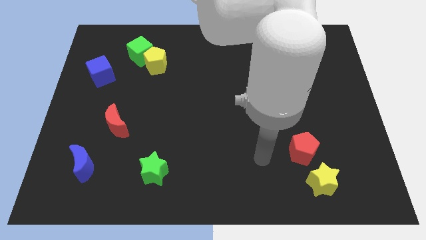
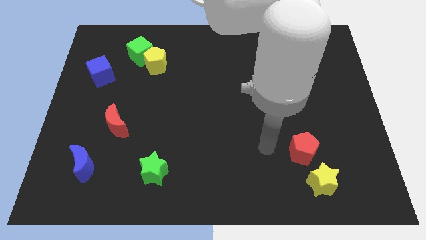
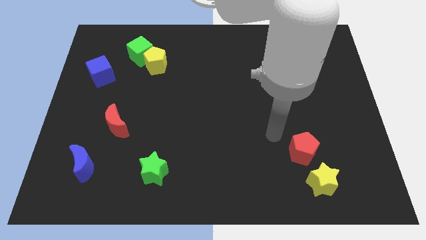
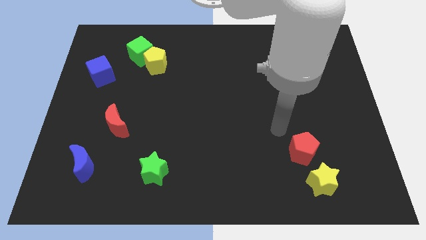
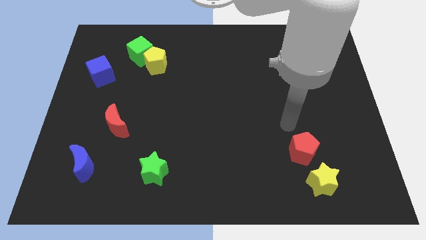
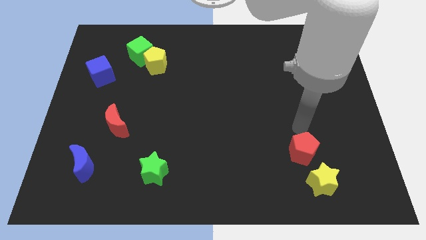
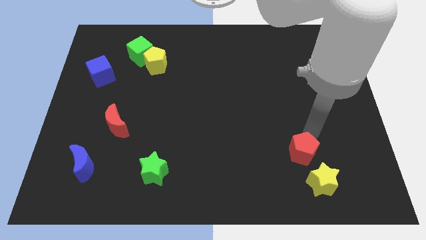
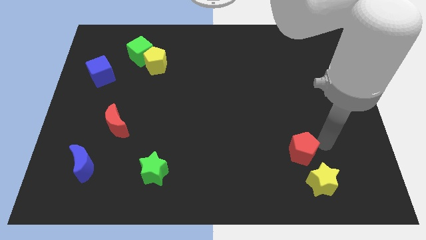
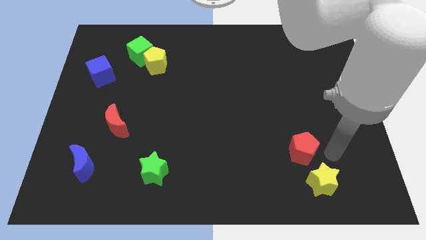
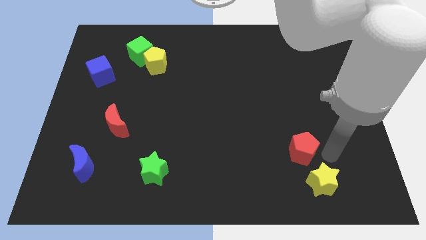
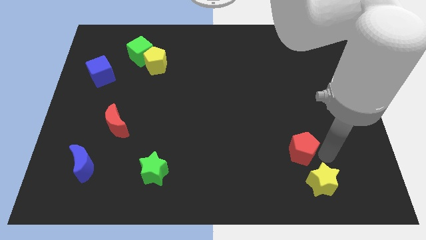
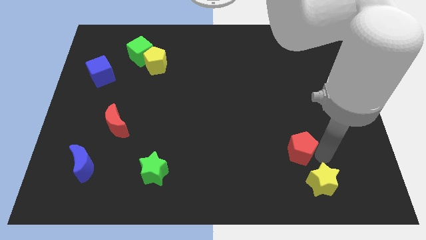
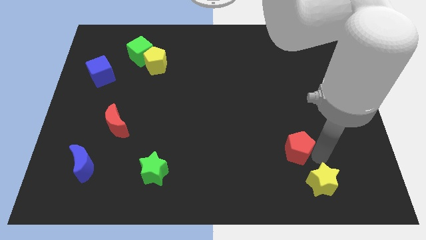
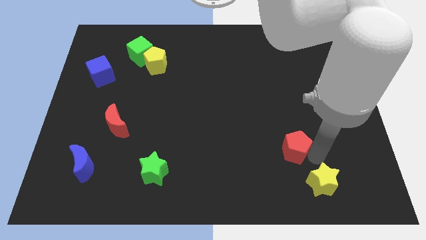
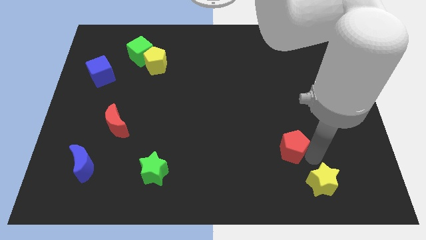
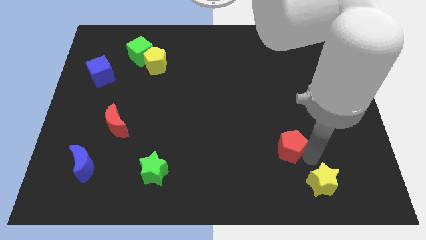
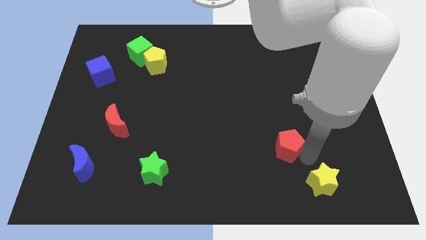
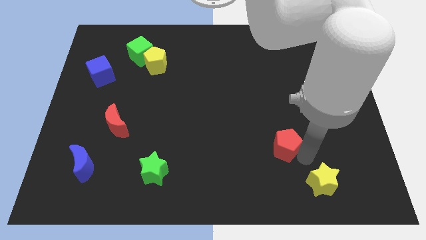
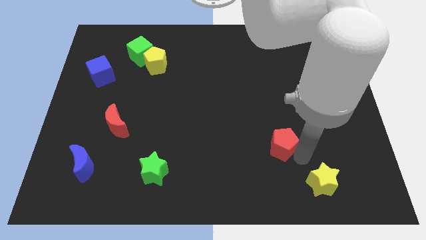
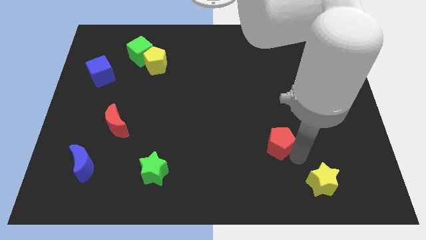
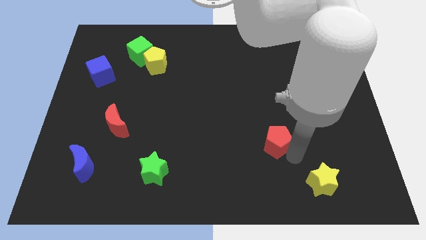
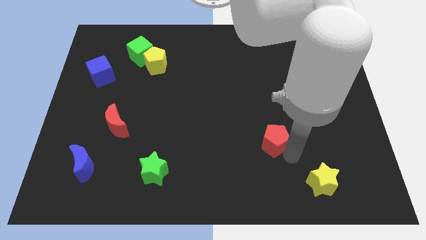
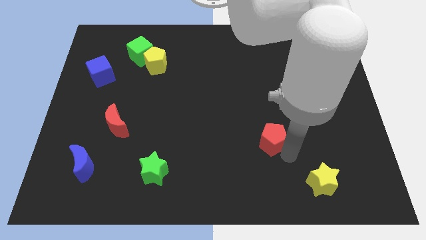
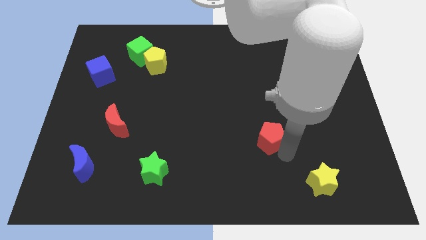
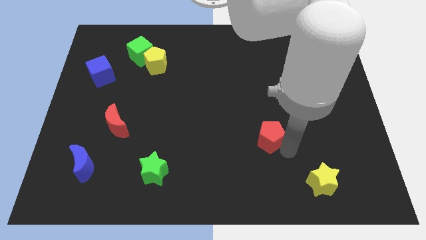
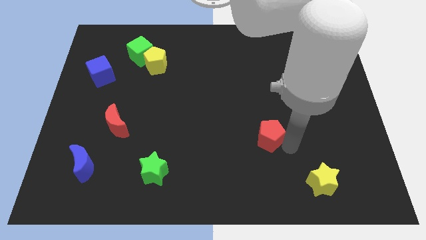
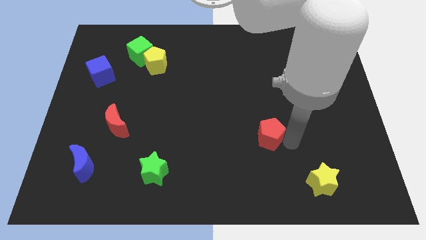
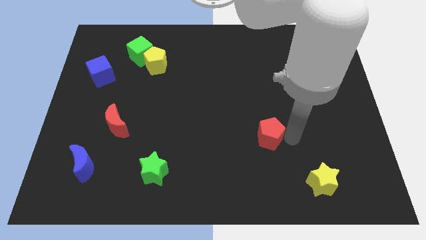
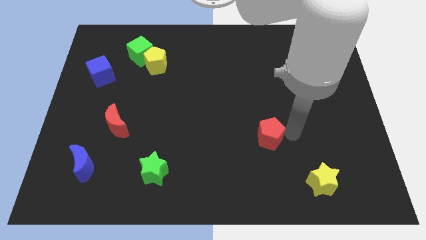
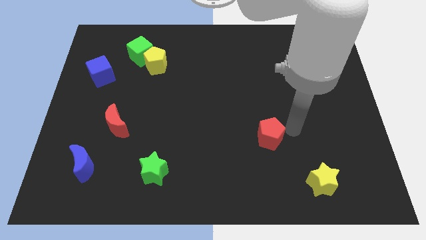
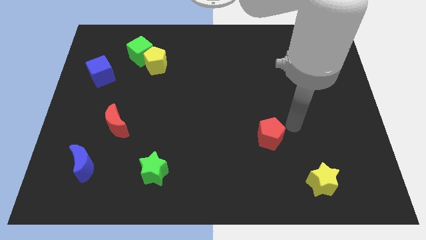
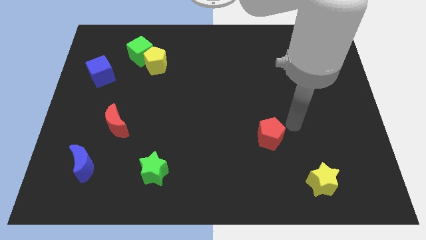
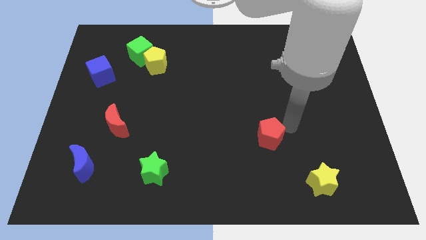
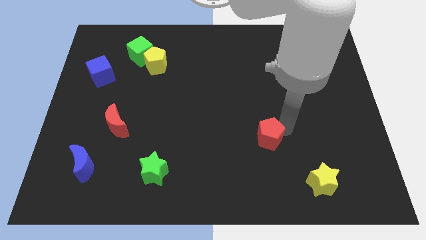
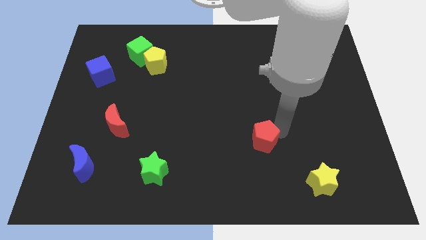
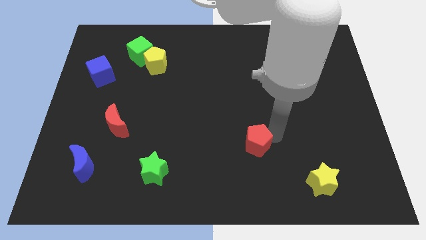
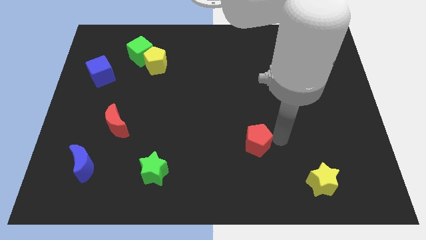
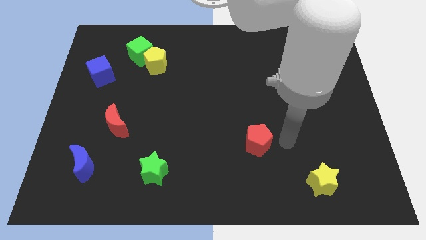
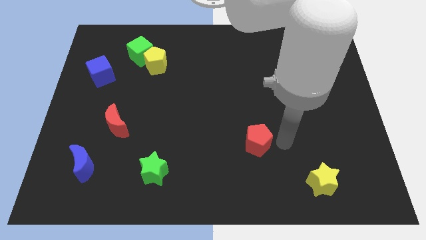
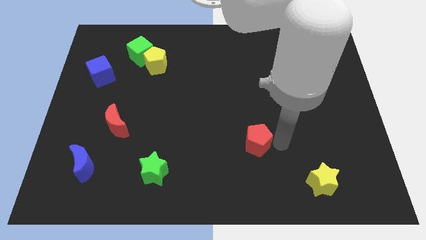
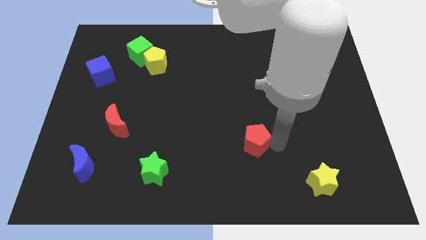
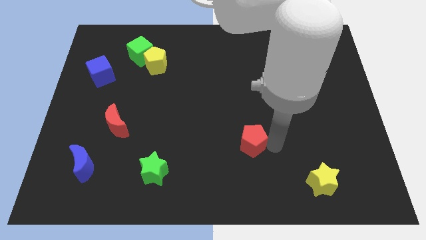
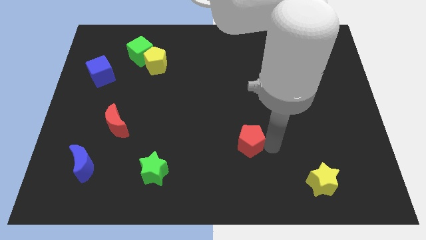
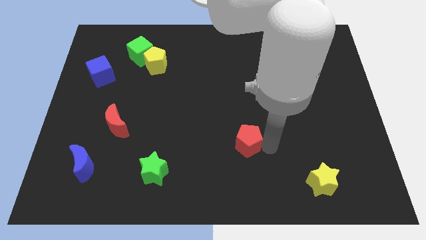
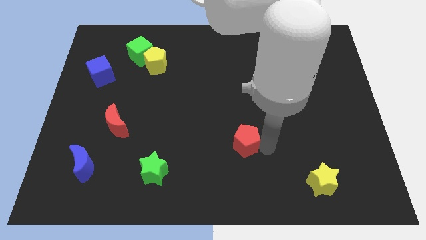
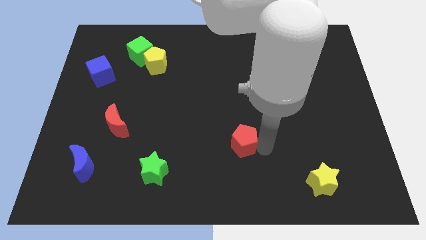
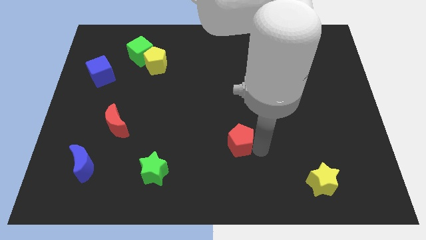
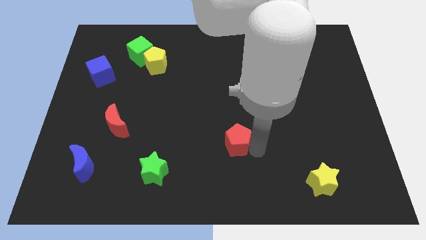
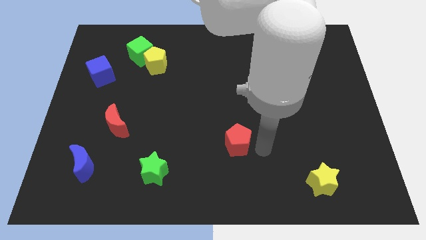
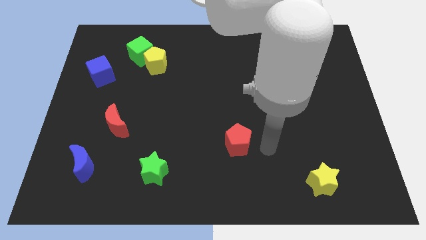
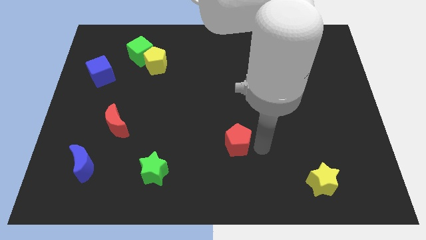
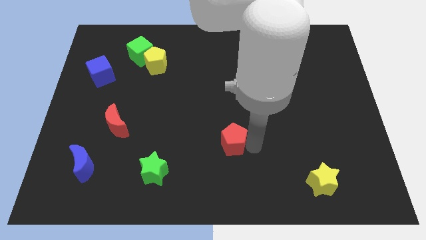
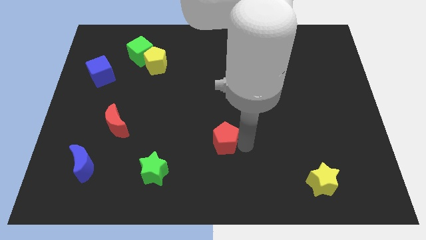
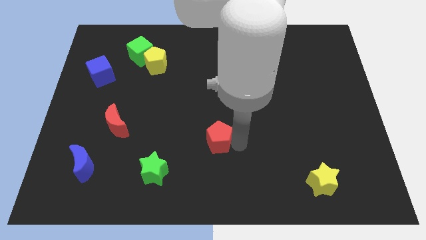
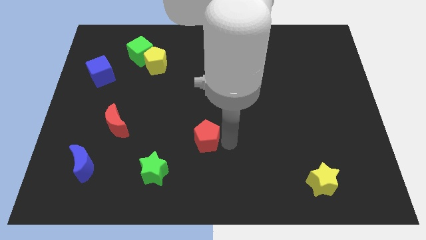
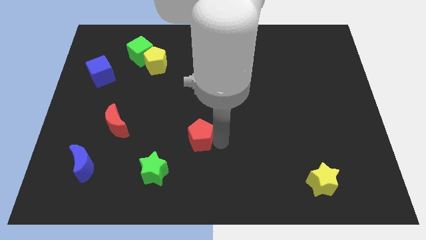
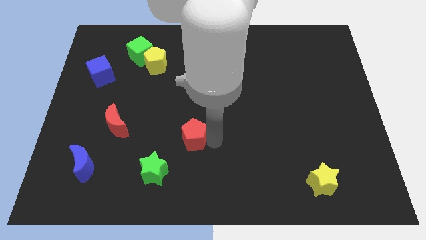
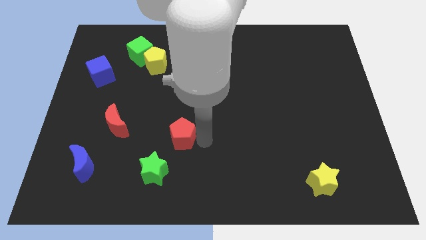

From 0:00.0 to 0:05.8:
push the red pentagon to the right of the red moon

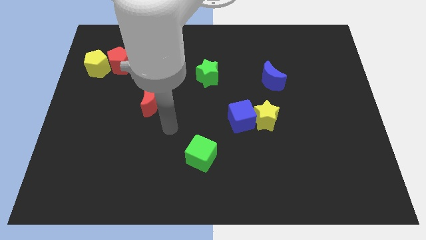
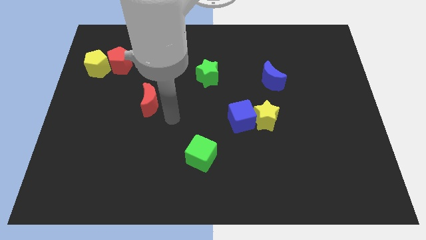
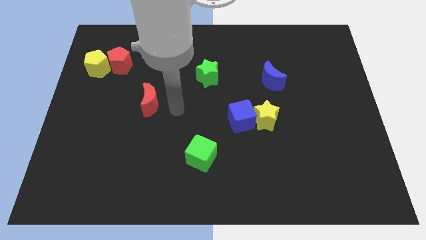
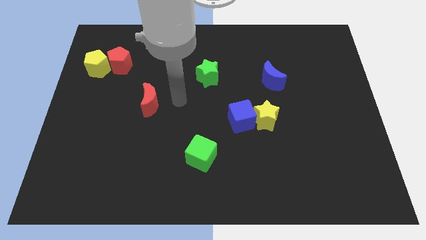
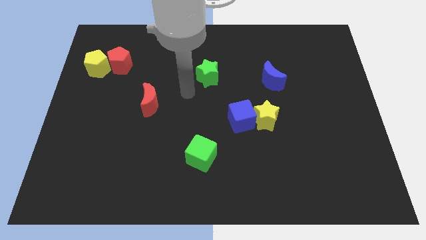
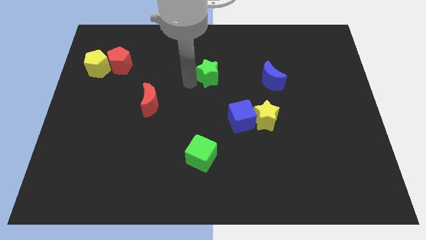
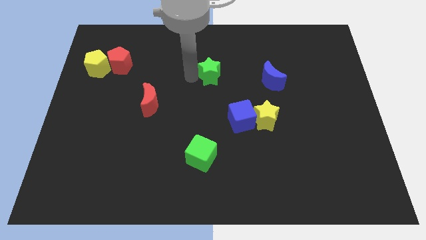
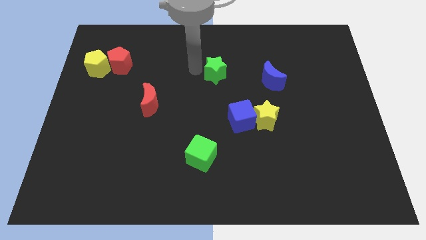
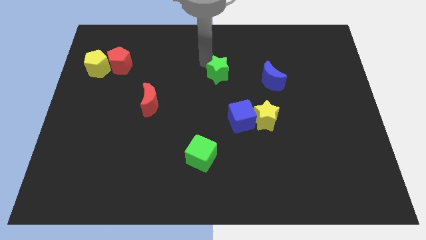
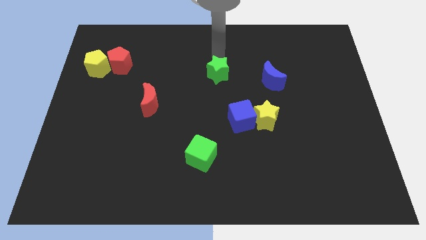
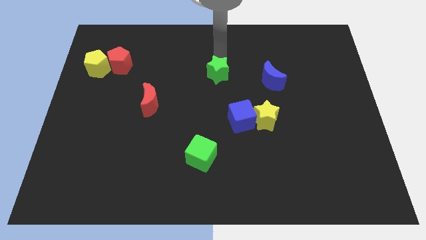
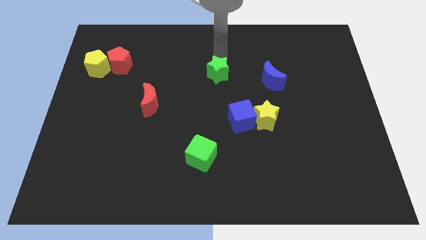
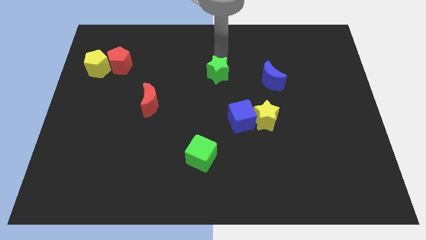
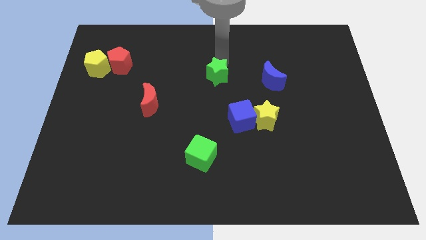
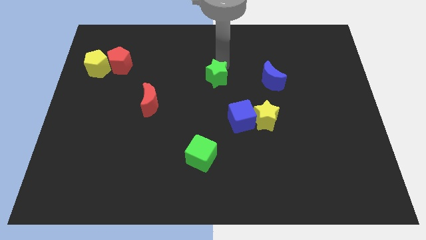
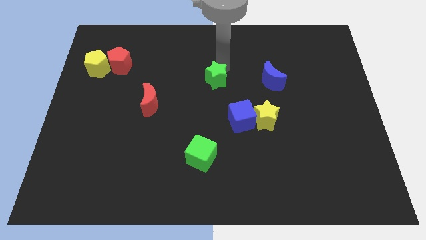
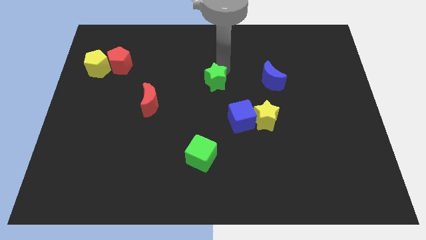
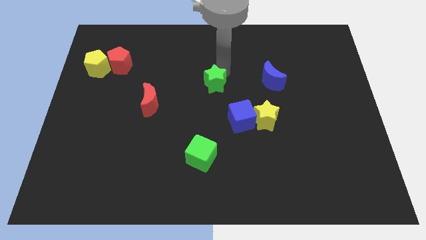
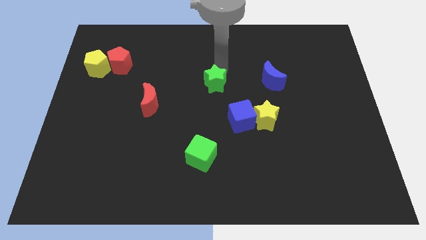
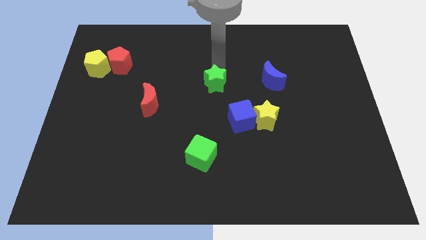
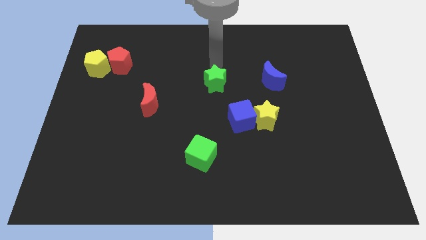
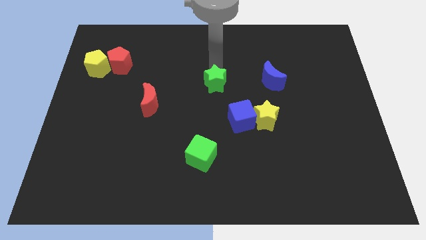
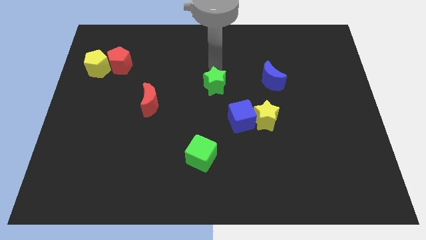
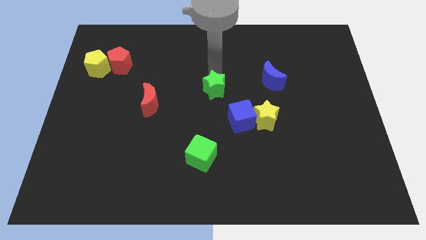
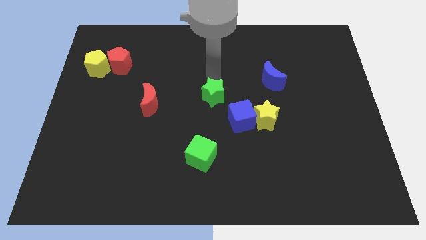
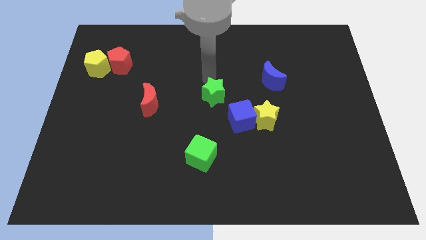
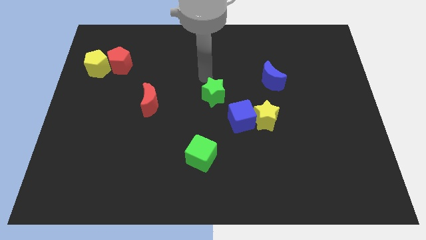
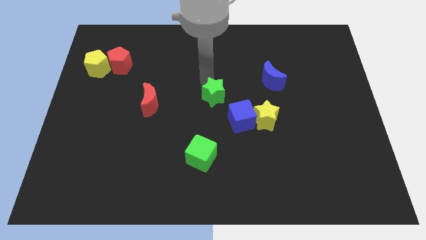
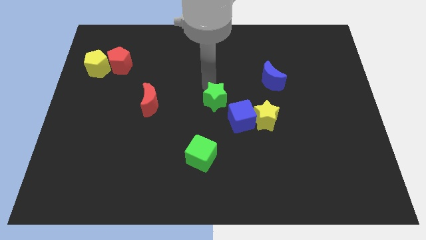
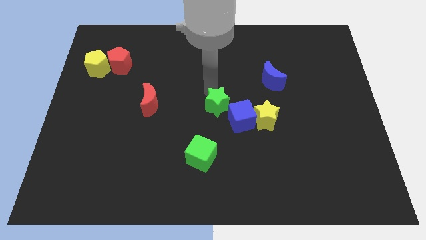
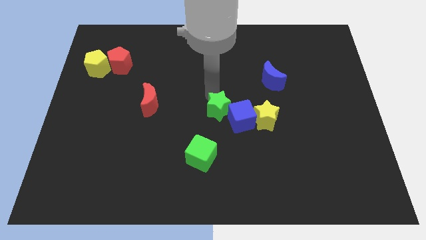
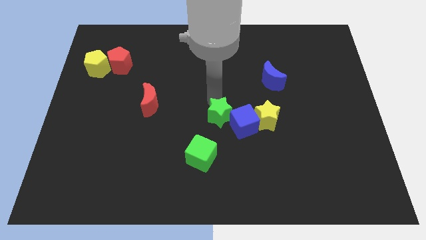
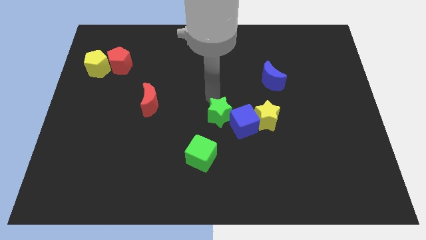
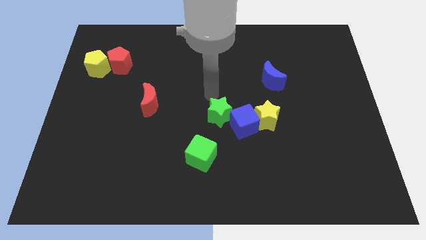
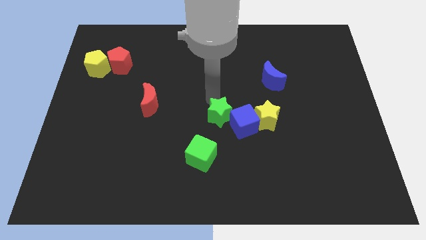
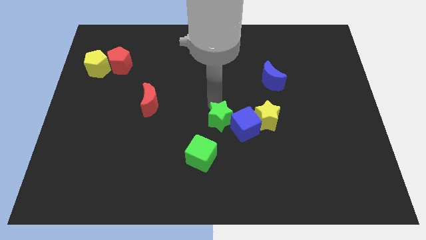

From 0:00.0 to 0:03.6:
move the green star diagonally up and to the right of the green cube
